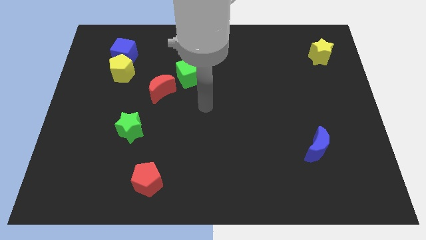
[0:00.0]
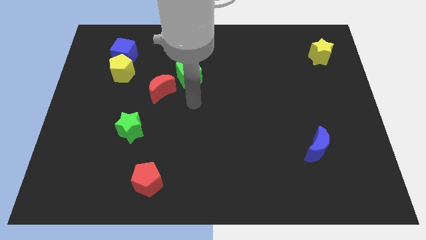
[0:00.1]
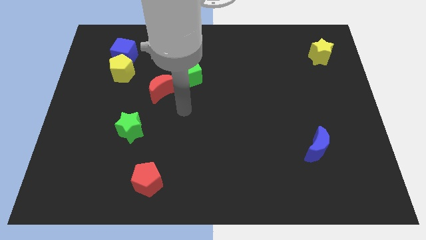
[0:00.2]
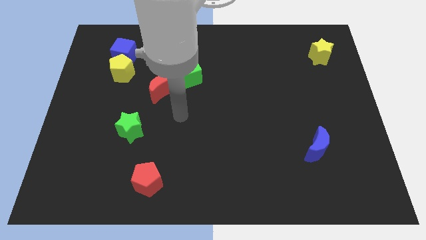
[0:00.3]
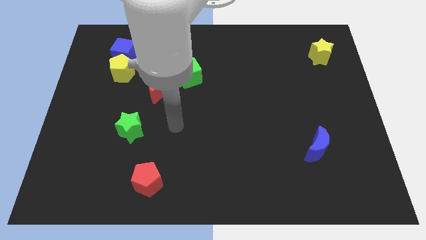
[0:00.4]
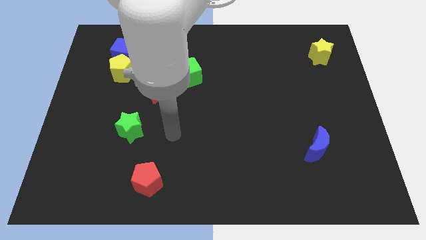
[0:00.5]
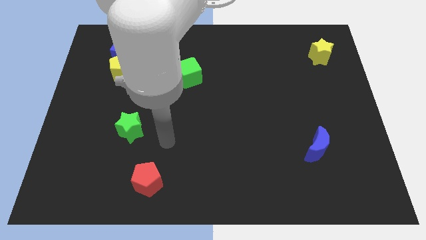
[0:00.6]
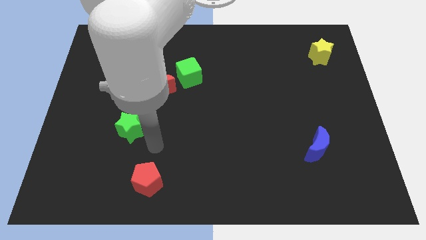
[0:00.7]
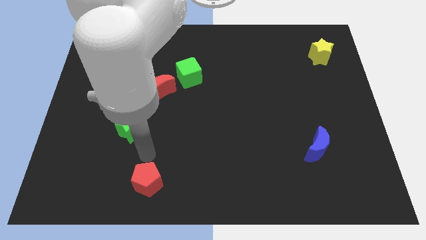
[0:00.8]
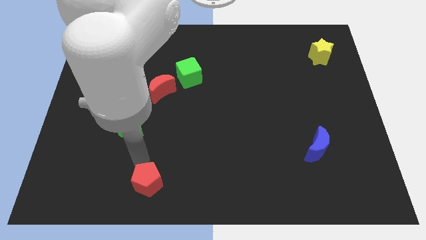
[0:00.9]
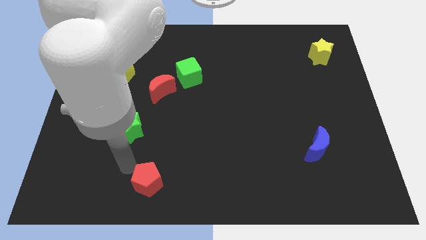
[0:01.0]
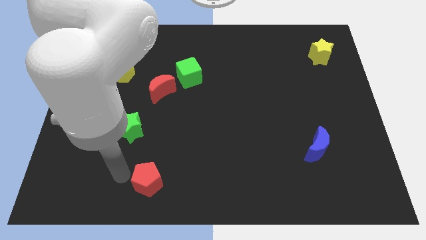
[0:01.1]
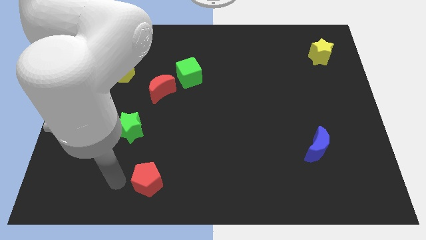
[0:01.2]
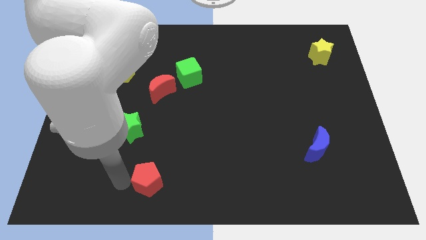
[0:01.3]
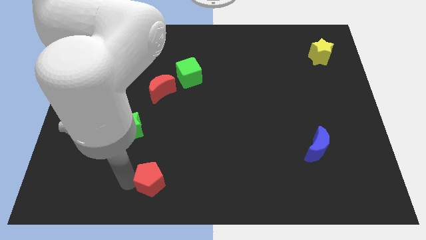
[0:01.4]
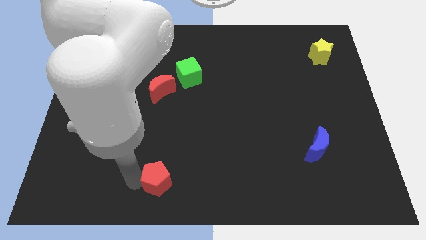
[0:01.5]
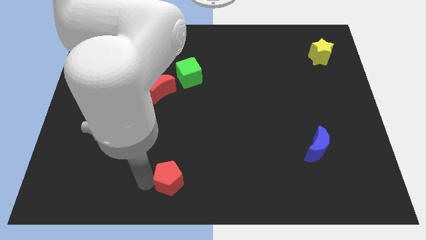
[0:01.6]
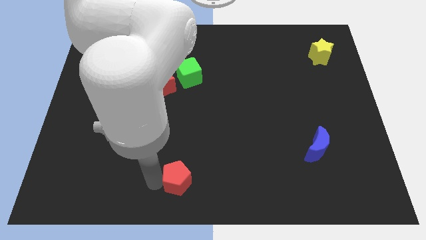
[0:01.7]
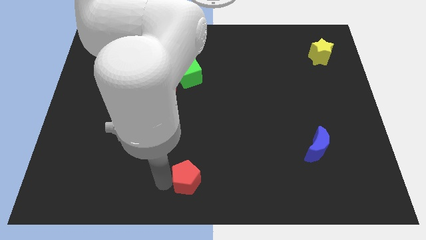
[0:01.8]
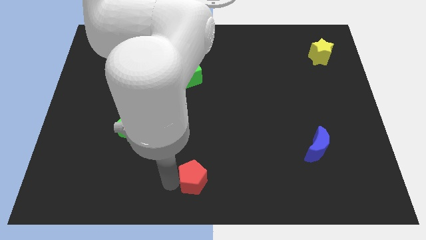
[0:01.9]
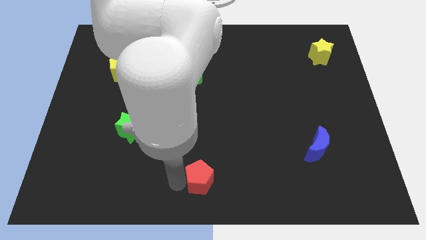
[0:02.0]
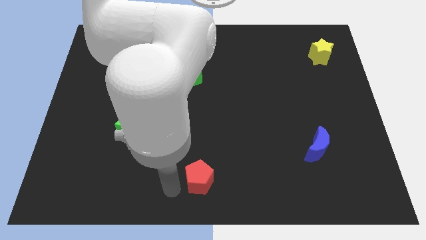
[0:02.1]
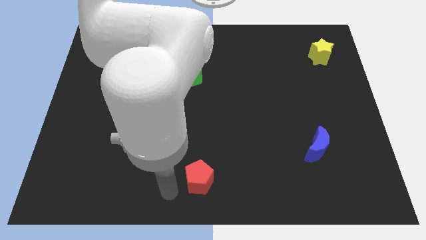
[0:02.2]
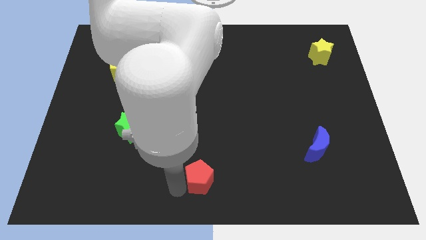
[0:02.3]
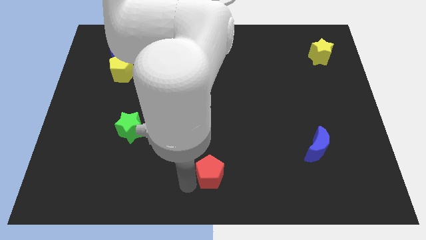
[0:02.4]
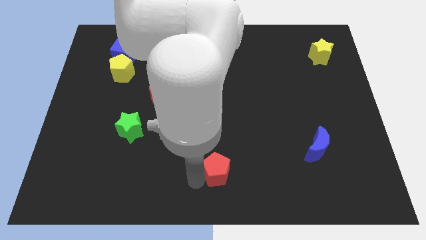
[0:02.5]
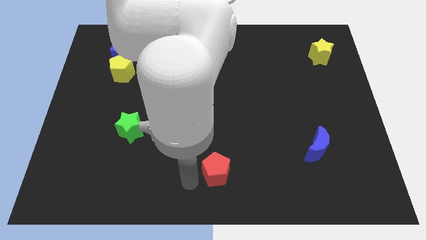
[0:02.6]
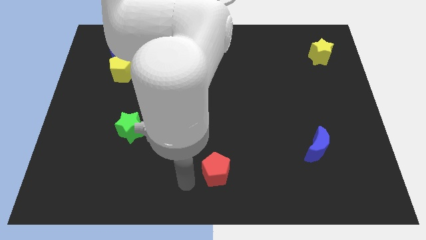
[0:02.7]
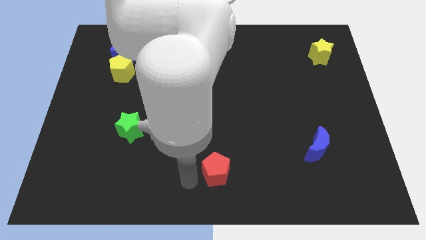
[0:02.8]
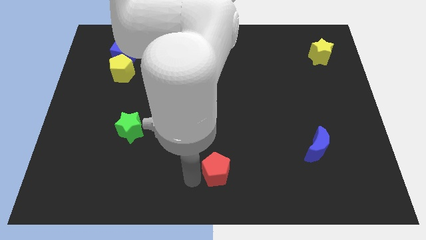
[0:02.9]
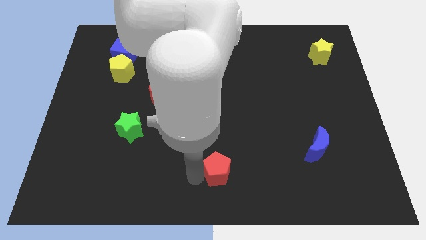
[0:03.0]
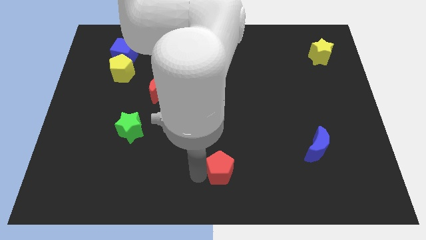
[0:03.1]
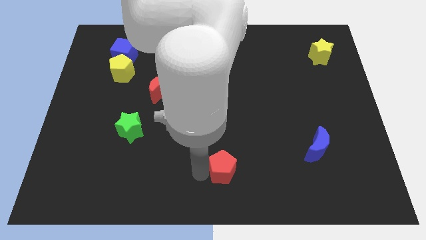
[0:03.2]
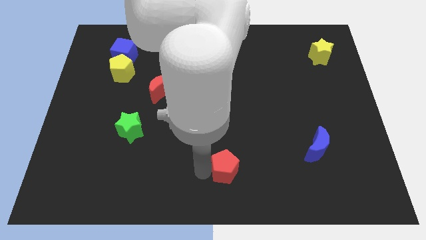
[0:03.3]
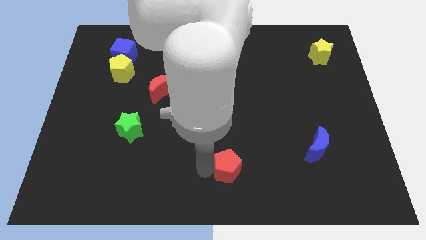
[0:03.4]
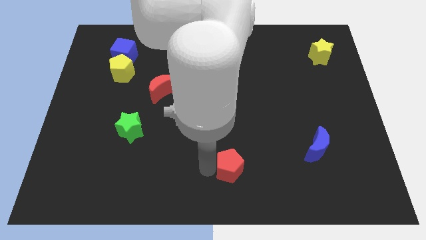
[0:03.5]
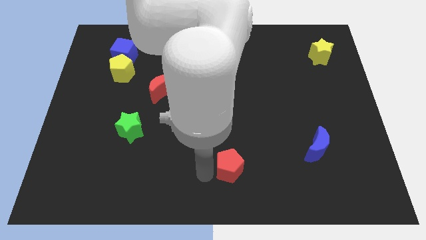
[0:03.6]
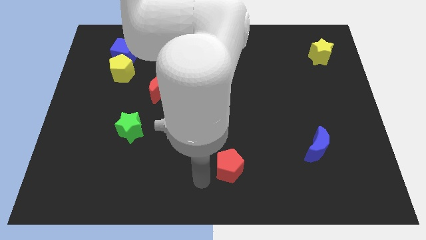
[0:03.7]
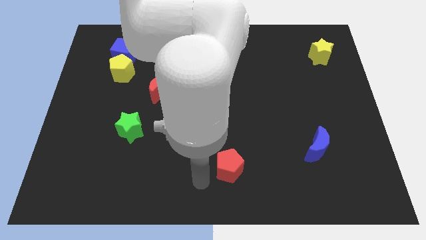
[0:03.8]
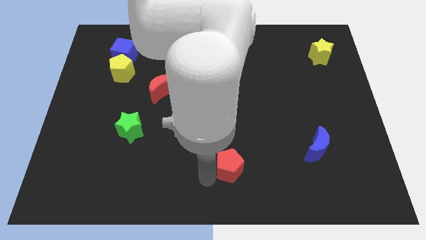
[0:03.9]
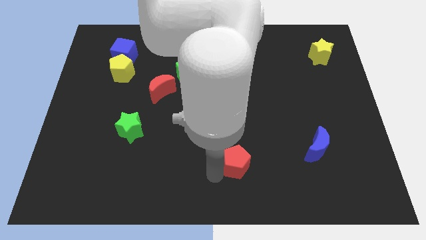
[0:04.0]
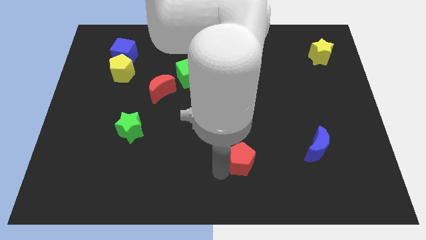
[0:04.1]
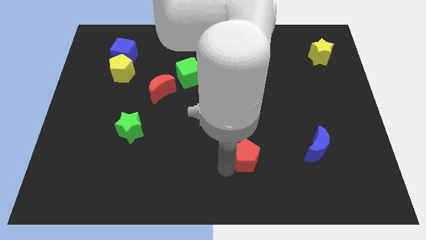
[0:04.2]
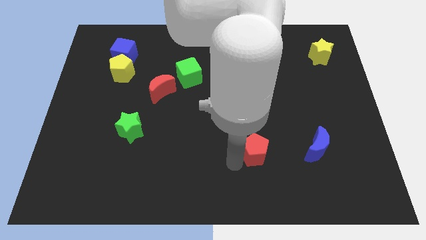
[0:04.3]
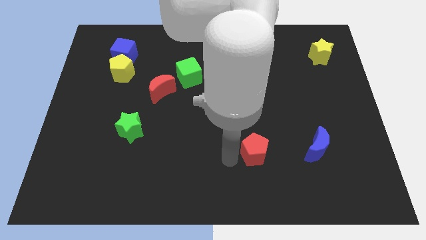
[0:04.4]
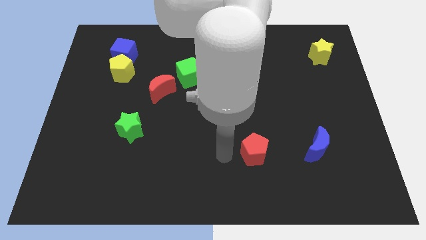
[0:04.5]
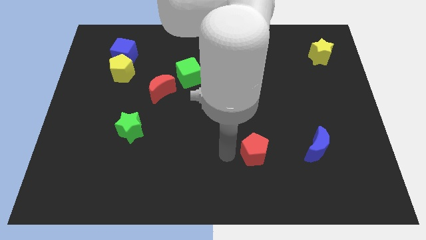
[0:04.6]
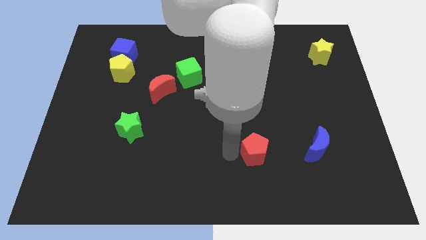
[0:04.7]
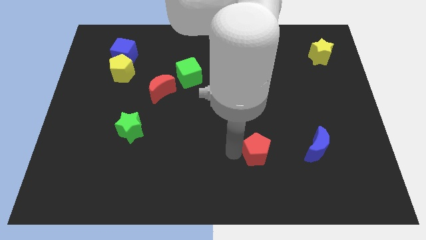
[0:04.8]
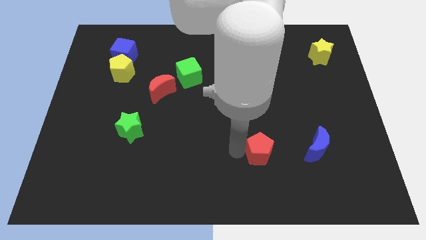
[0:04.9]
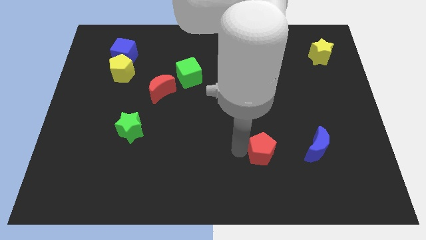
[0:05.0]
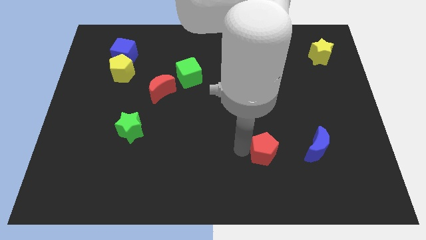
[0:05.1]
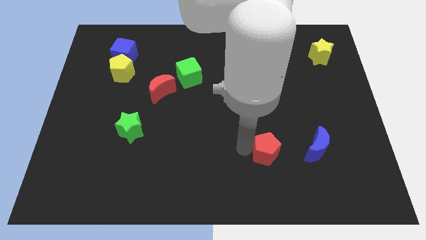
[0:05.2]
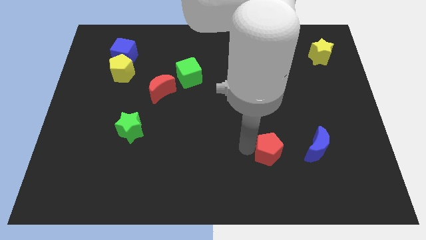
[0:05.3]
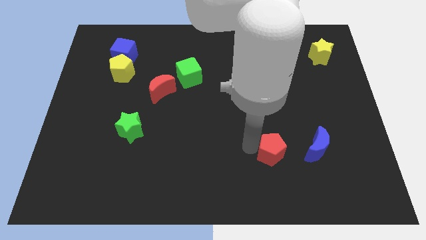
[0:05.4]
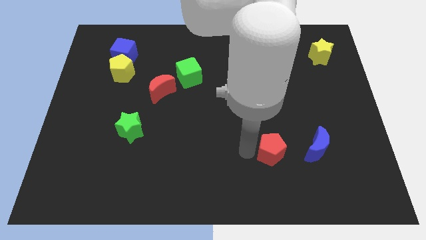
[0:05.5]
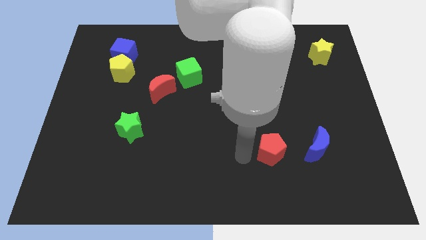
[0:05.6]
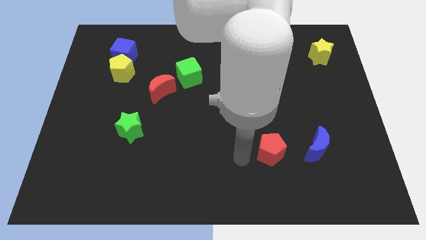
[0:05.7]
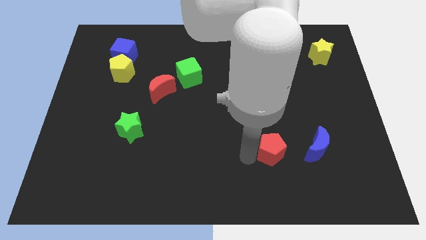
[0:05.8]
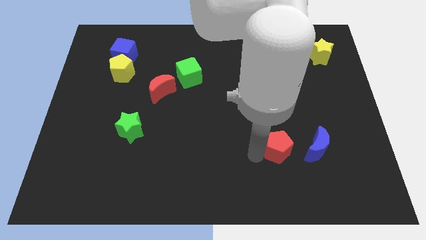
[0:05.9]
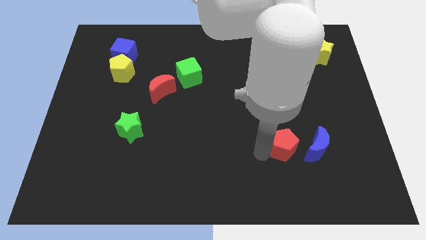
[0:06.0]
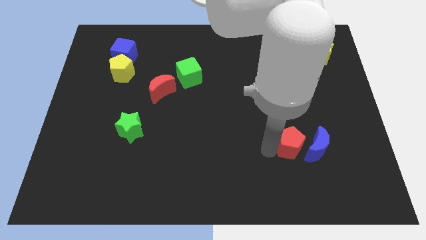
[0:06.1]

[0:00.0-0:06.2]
put the red pentagon to the blue moon

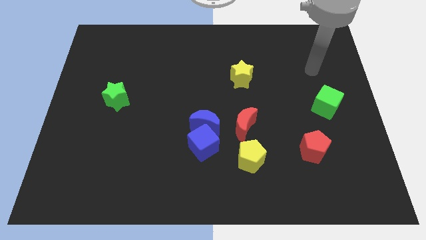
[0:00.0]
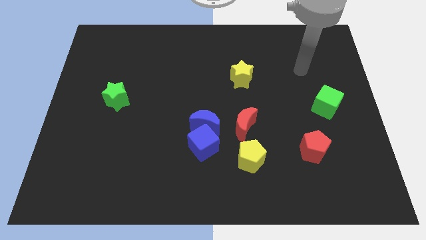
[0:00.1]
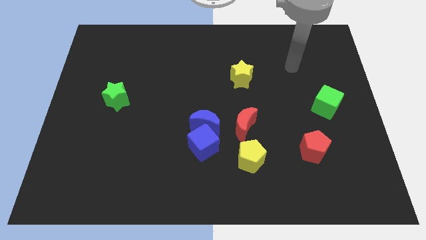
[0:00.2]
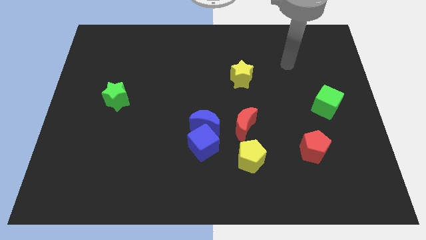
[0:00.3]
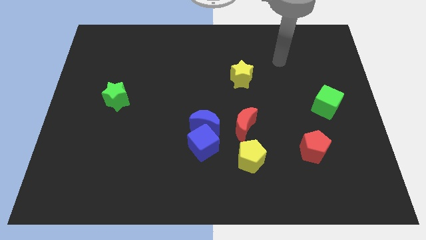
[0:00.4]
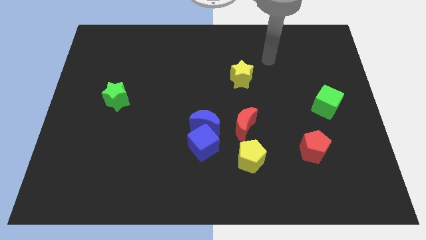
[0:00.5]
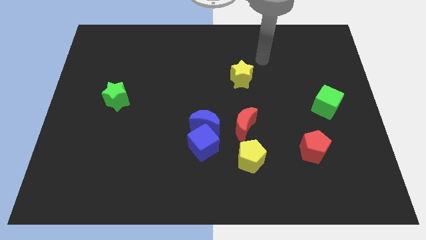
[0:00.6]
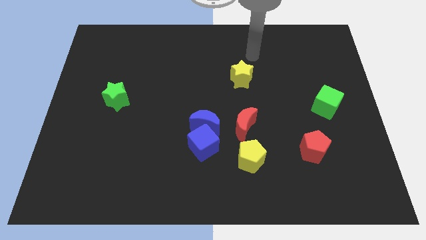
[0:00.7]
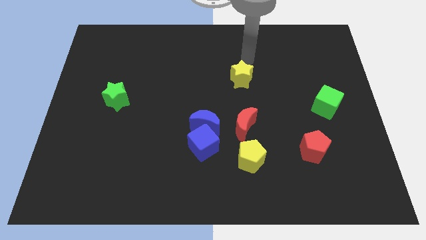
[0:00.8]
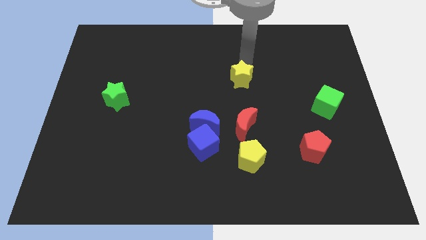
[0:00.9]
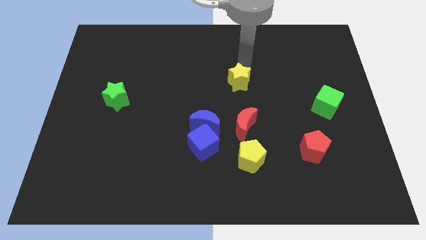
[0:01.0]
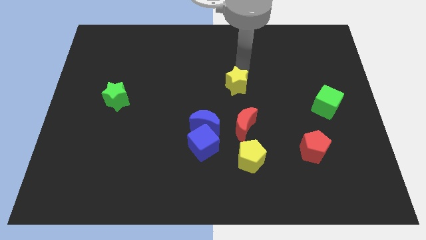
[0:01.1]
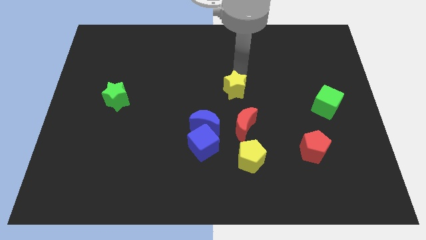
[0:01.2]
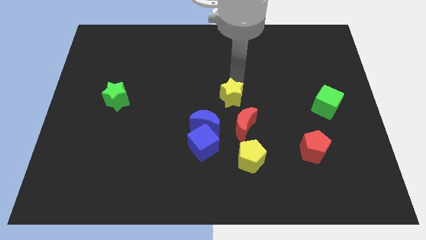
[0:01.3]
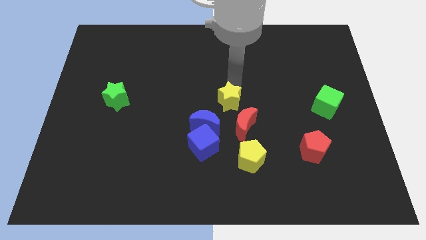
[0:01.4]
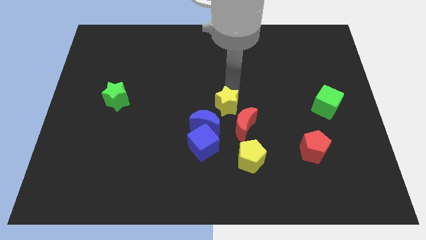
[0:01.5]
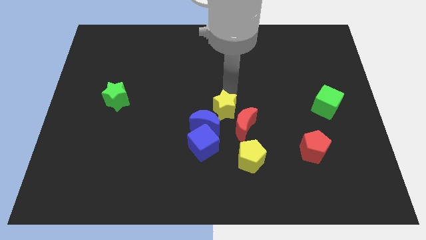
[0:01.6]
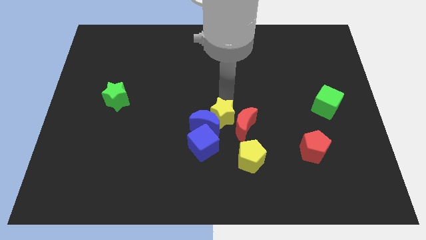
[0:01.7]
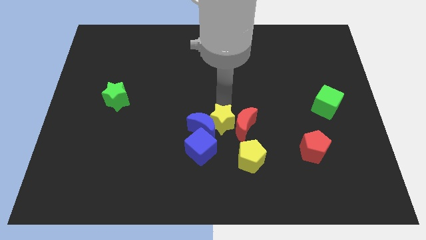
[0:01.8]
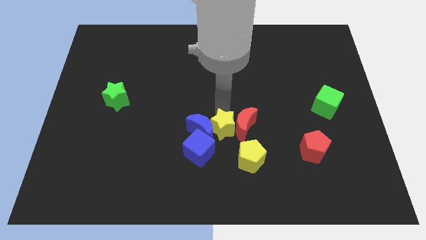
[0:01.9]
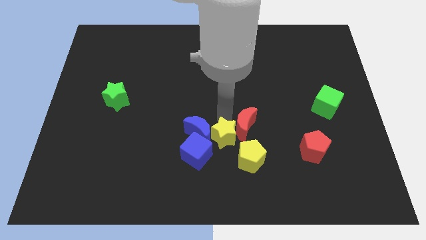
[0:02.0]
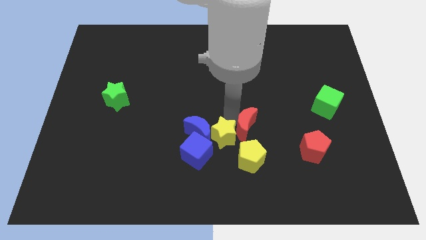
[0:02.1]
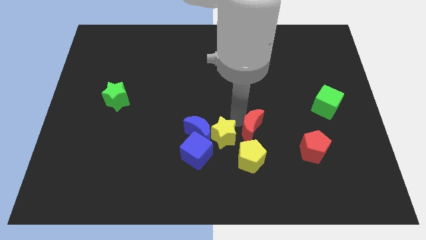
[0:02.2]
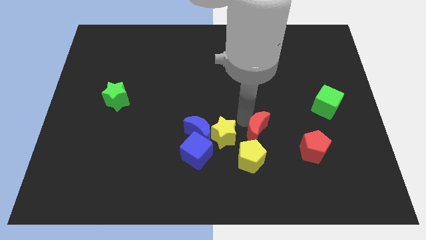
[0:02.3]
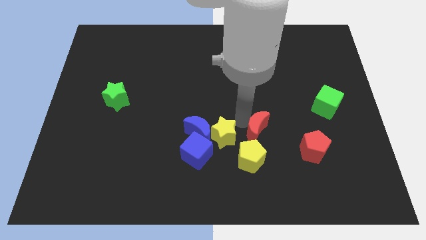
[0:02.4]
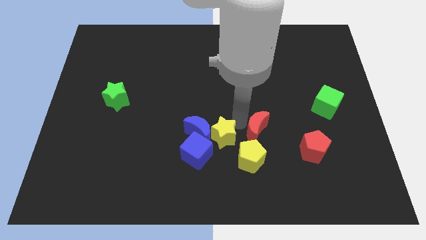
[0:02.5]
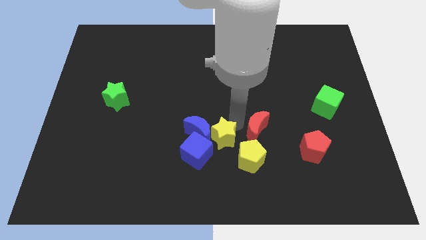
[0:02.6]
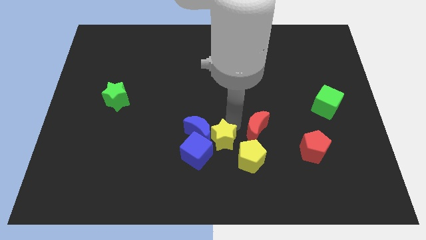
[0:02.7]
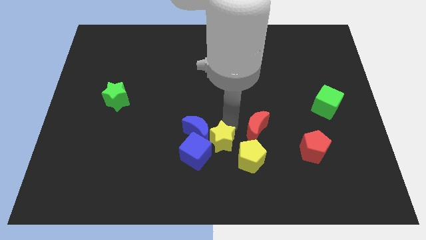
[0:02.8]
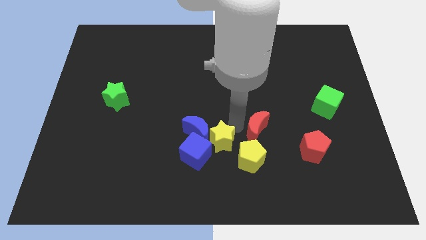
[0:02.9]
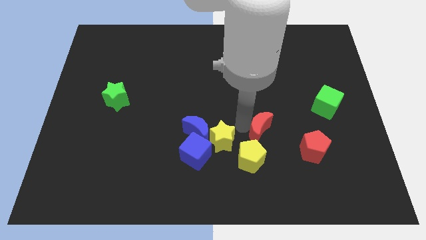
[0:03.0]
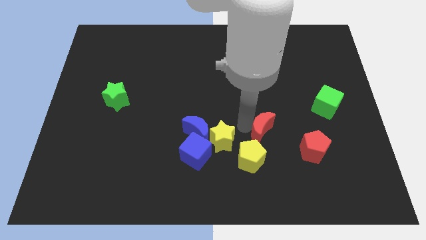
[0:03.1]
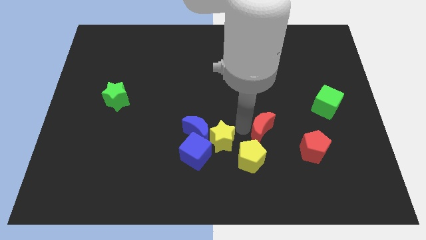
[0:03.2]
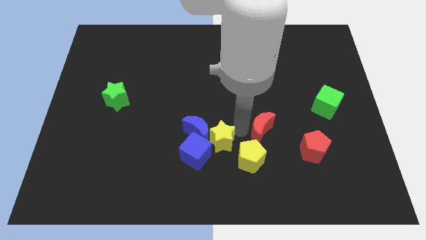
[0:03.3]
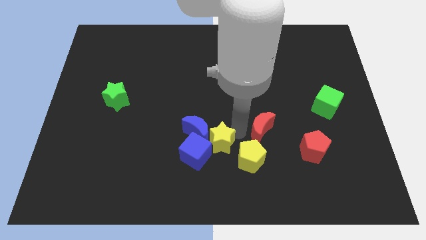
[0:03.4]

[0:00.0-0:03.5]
push the yellow star towards the blue cube
